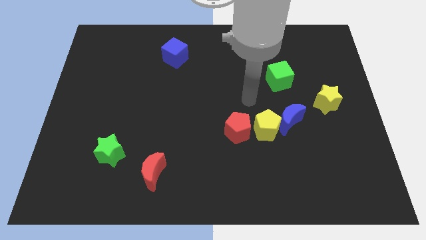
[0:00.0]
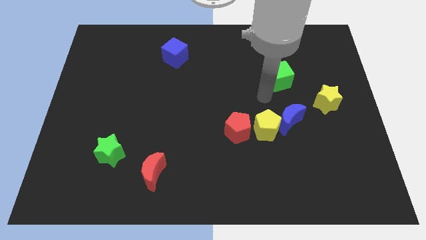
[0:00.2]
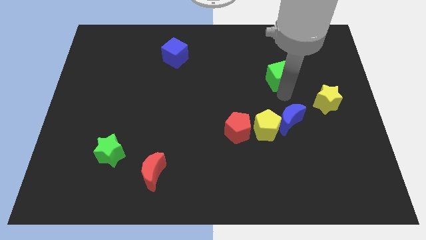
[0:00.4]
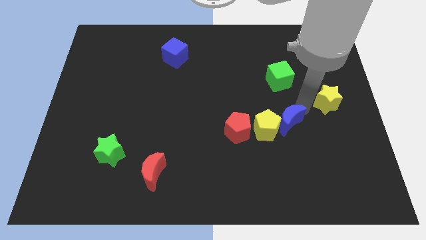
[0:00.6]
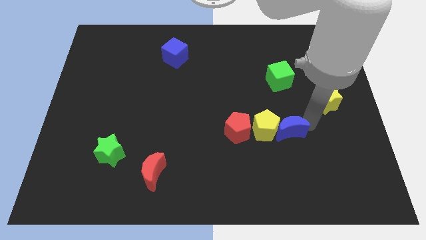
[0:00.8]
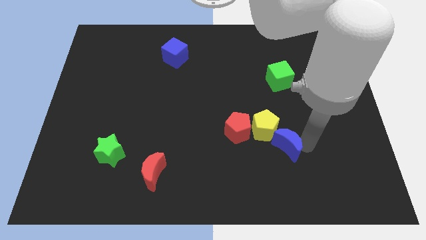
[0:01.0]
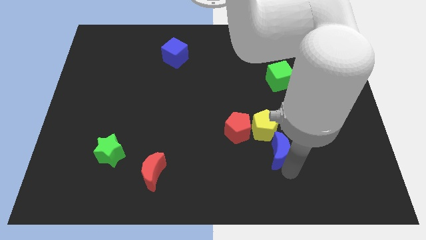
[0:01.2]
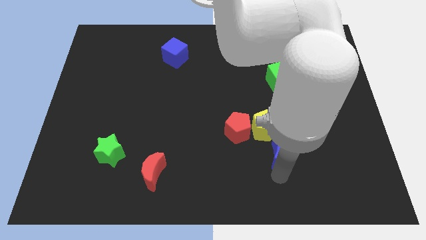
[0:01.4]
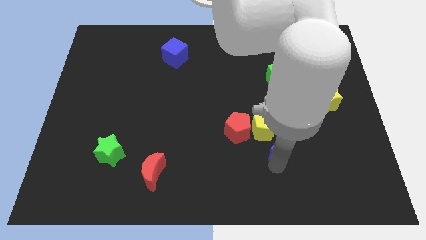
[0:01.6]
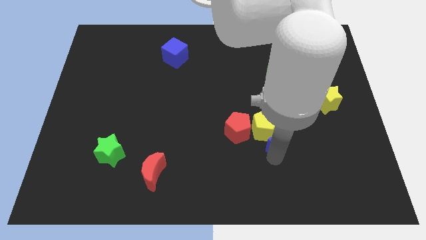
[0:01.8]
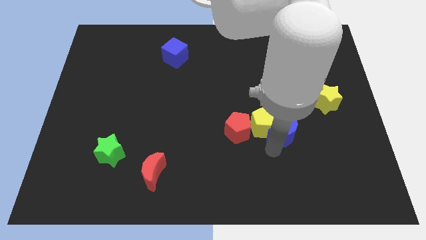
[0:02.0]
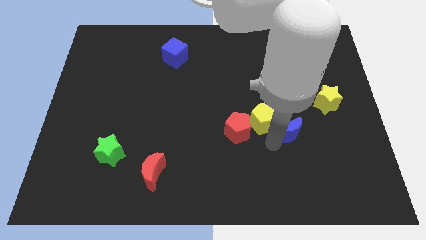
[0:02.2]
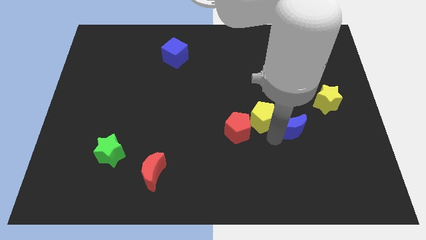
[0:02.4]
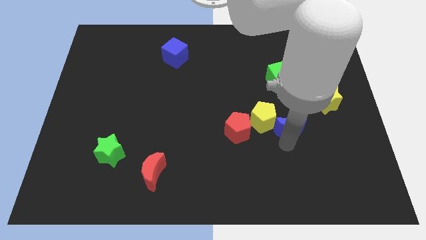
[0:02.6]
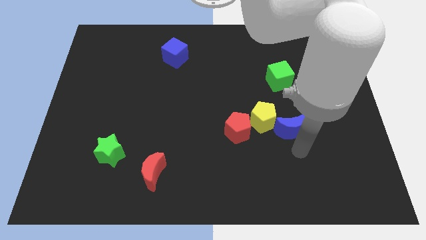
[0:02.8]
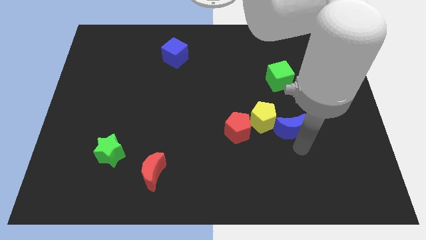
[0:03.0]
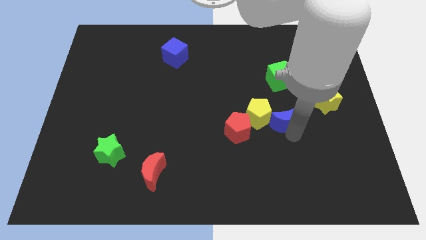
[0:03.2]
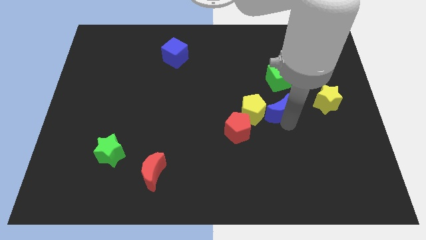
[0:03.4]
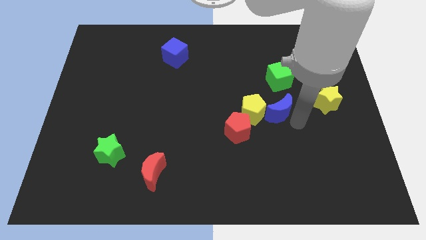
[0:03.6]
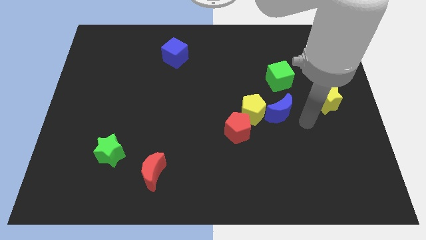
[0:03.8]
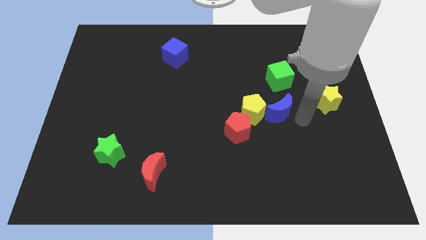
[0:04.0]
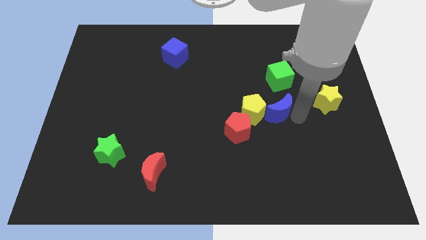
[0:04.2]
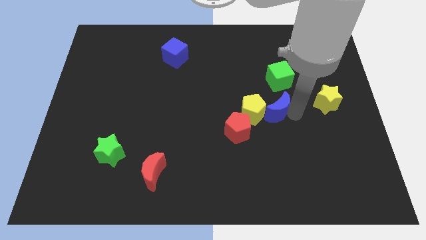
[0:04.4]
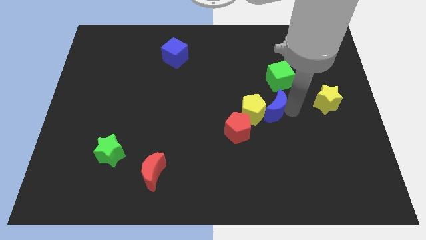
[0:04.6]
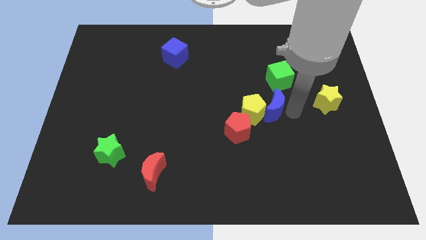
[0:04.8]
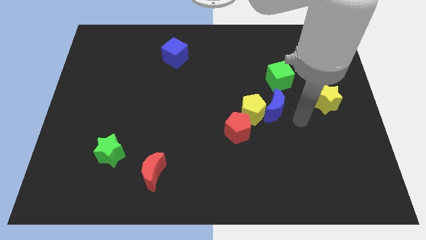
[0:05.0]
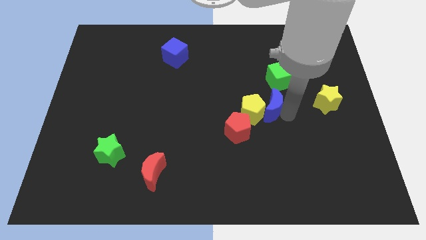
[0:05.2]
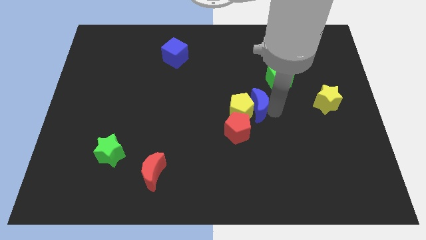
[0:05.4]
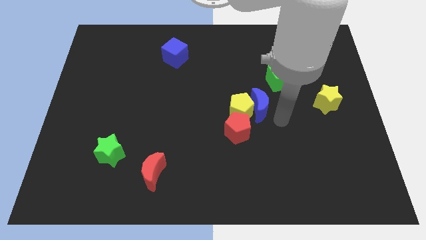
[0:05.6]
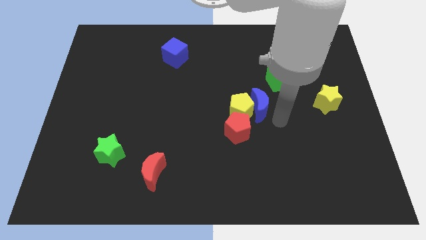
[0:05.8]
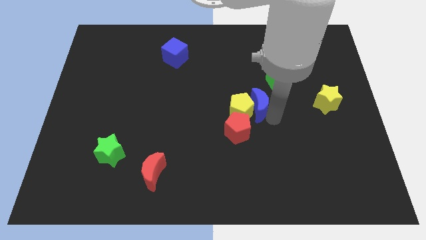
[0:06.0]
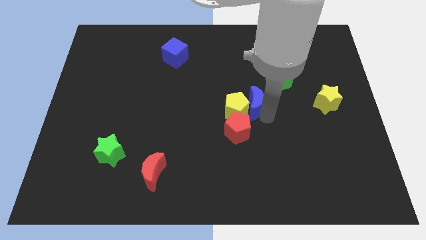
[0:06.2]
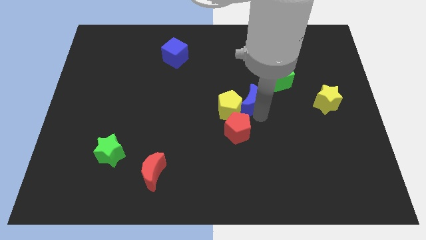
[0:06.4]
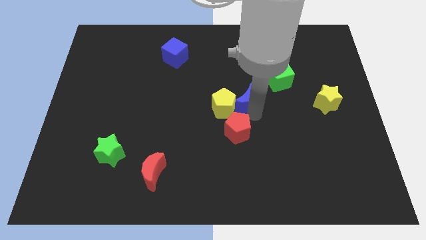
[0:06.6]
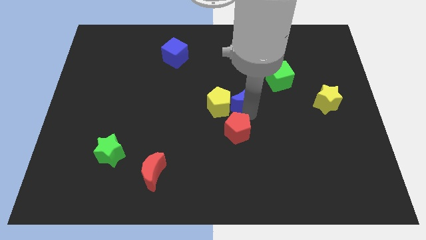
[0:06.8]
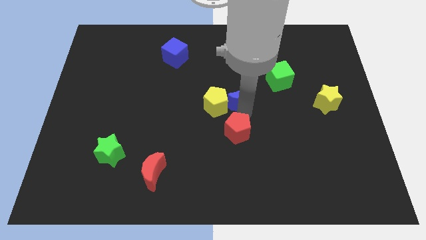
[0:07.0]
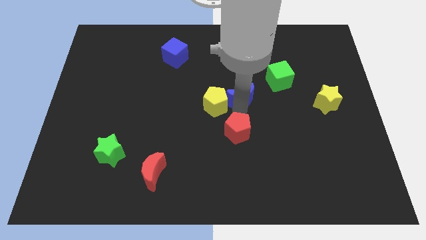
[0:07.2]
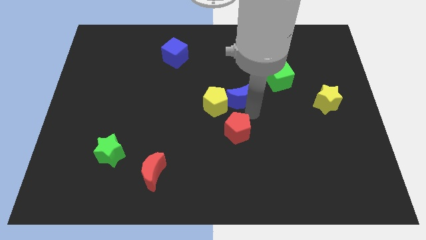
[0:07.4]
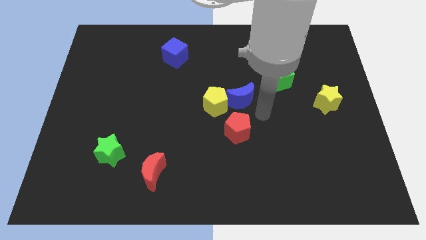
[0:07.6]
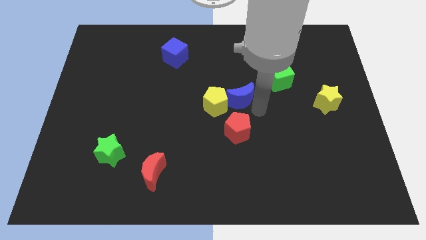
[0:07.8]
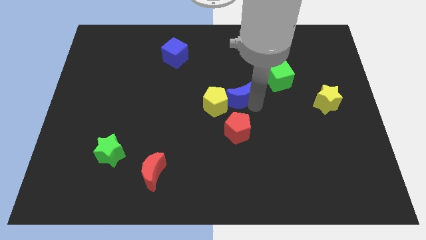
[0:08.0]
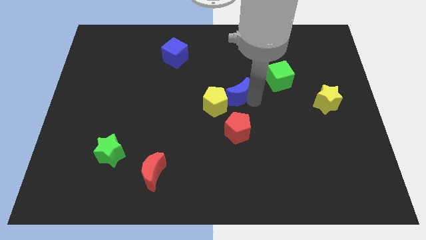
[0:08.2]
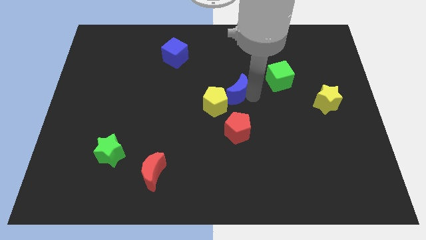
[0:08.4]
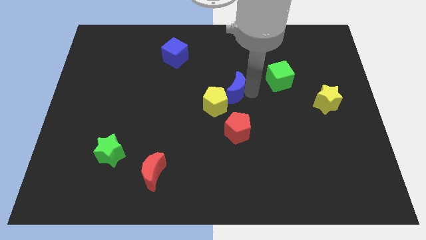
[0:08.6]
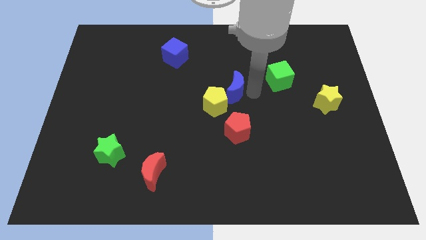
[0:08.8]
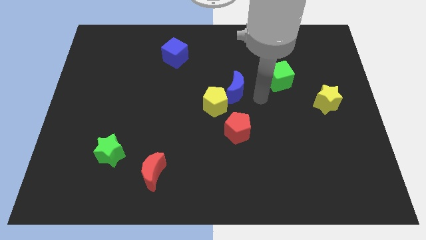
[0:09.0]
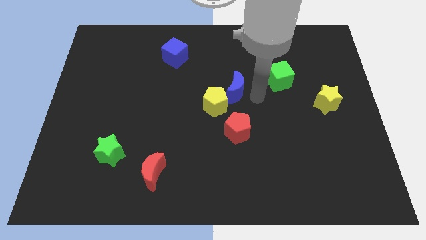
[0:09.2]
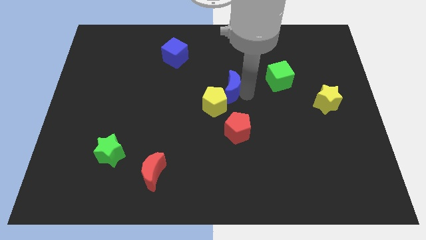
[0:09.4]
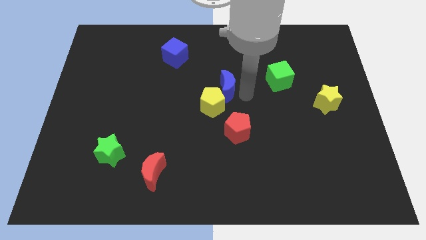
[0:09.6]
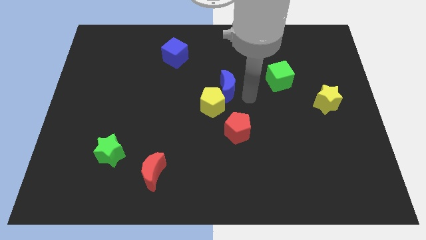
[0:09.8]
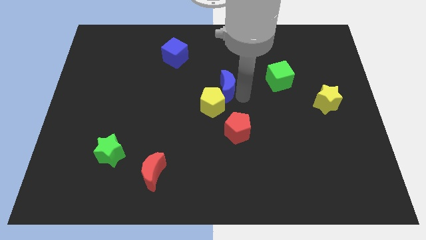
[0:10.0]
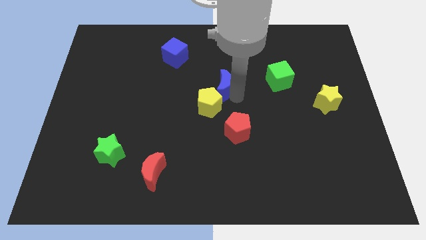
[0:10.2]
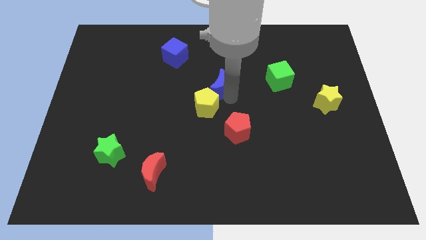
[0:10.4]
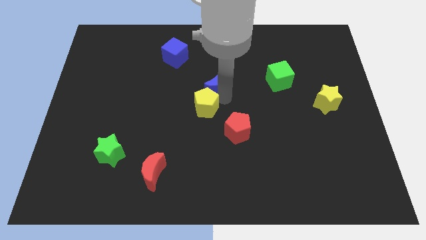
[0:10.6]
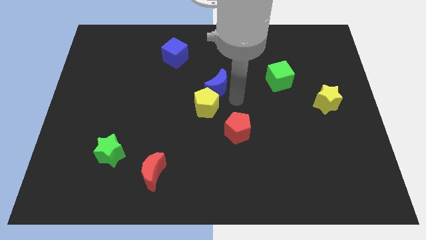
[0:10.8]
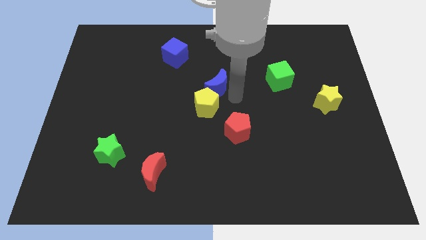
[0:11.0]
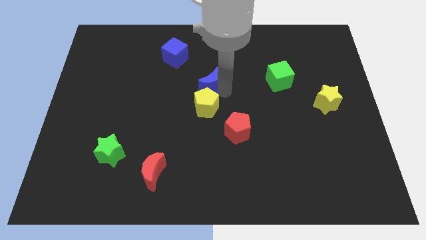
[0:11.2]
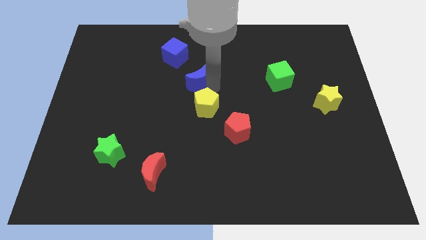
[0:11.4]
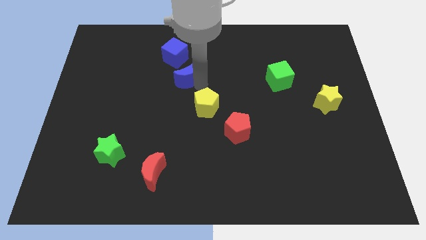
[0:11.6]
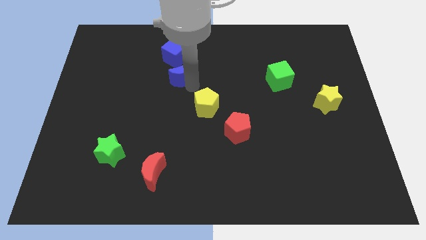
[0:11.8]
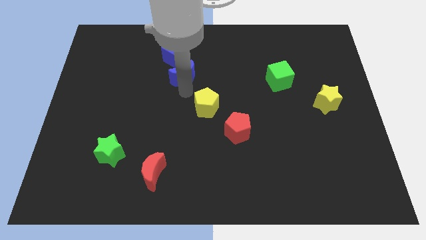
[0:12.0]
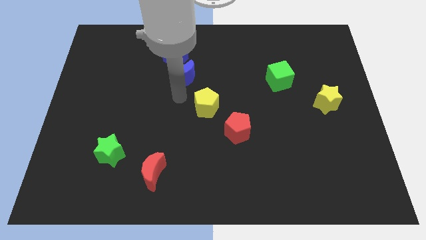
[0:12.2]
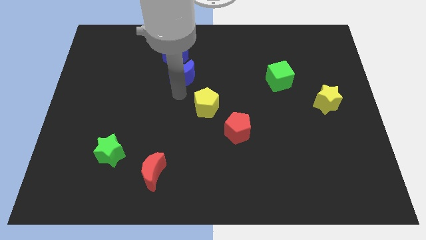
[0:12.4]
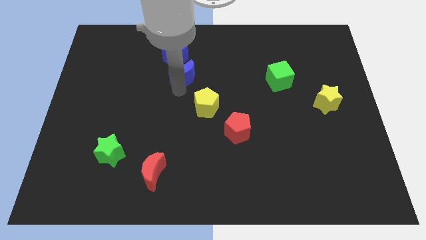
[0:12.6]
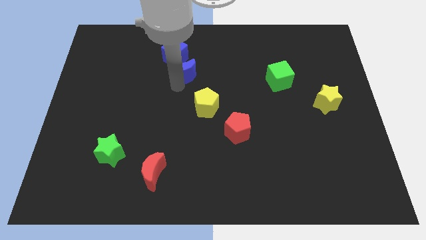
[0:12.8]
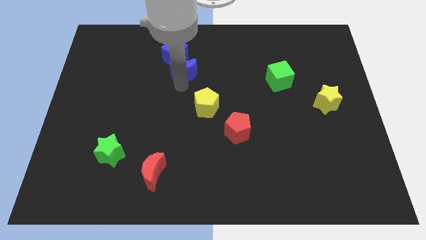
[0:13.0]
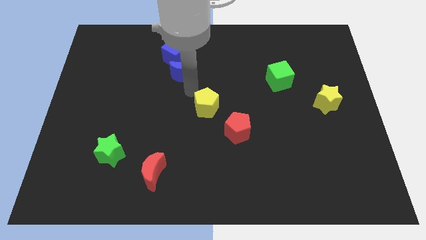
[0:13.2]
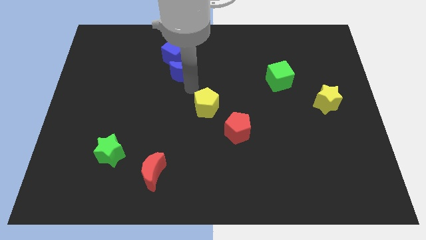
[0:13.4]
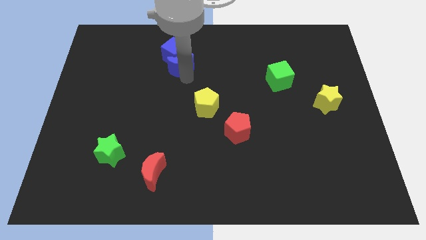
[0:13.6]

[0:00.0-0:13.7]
slide the blue moon close to the blue cube

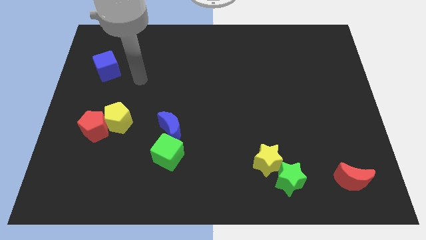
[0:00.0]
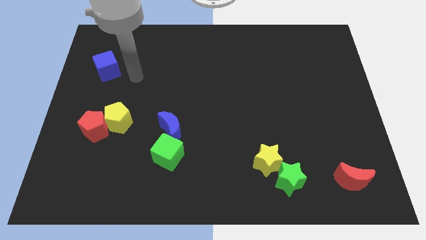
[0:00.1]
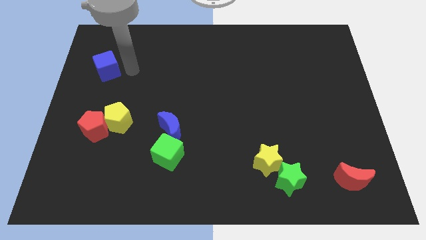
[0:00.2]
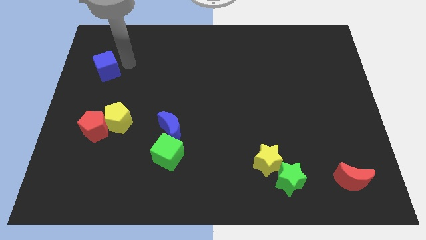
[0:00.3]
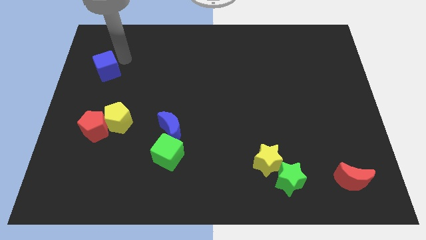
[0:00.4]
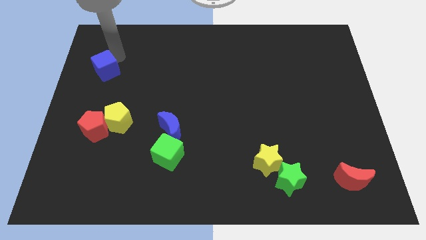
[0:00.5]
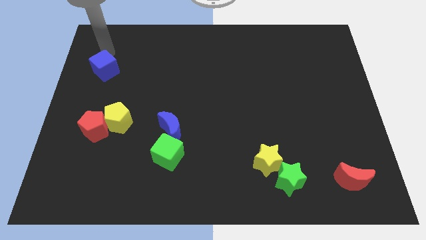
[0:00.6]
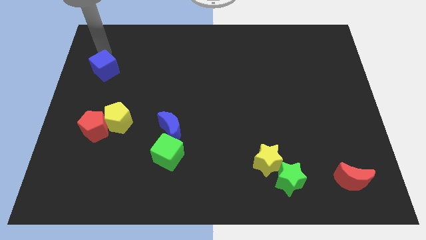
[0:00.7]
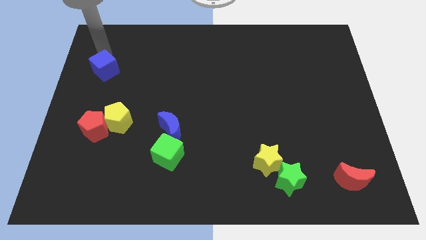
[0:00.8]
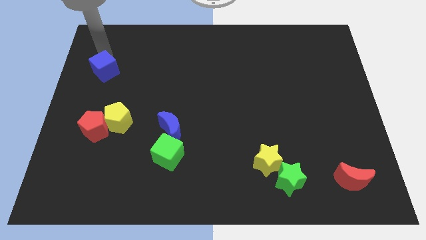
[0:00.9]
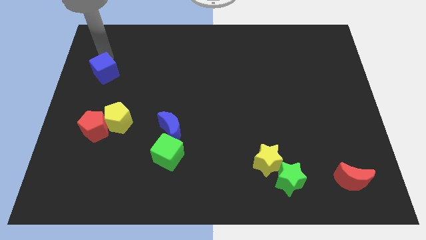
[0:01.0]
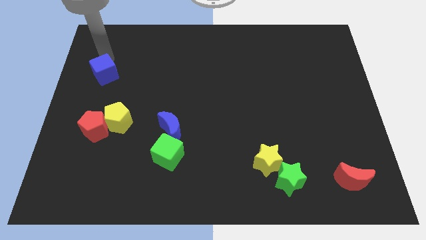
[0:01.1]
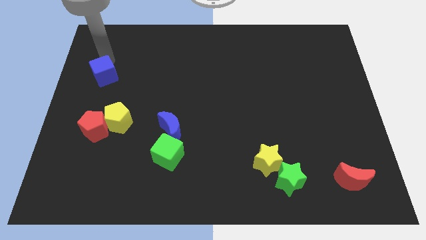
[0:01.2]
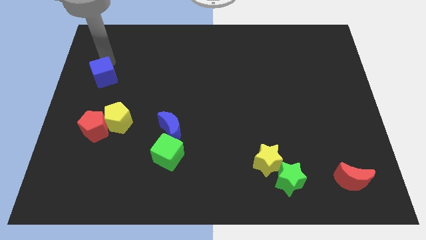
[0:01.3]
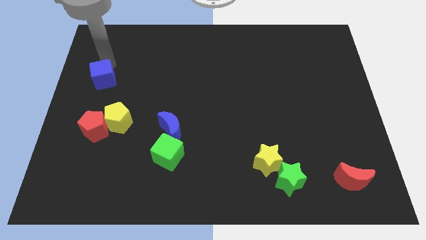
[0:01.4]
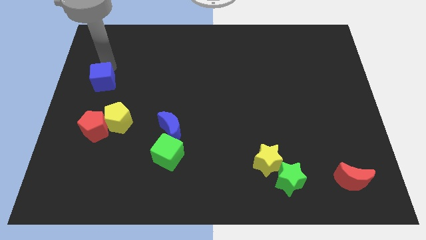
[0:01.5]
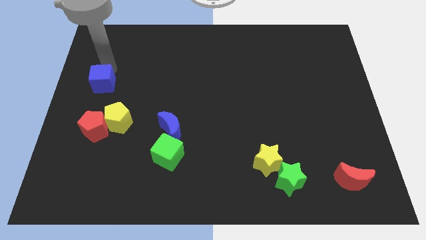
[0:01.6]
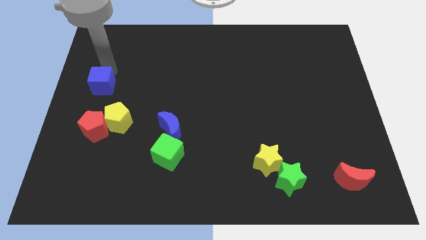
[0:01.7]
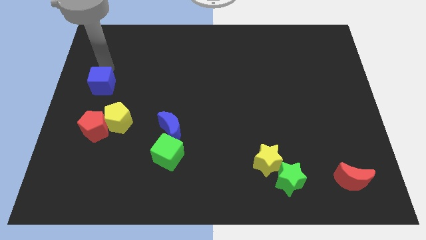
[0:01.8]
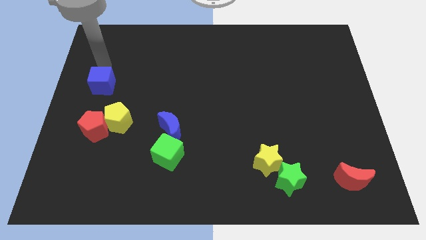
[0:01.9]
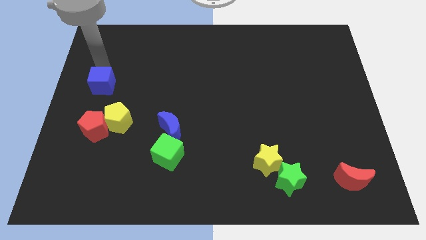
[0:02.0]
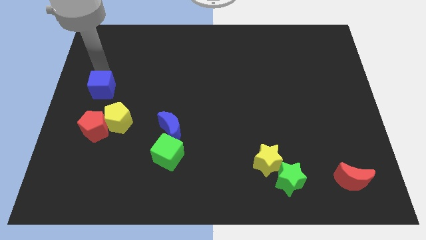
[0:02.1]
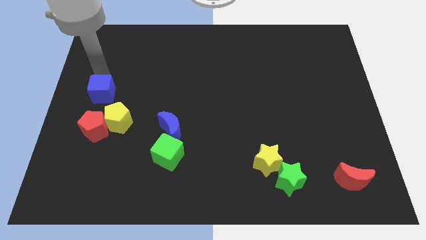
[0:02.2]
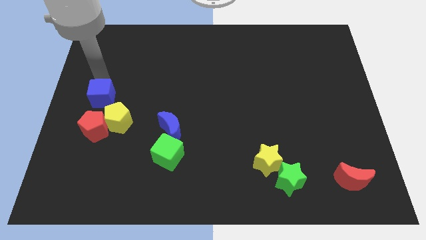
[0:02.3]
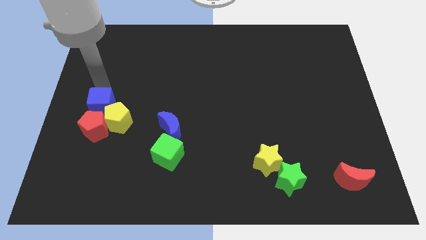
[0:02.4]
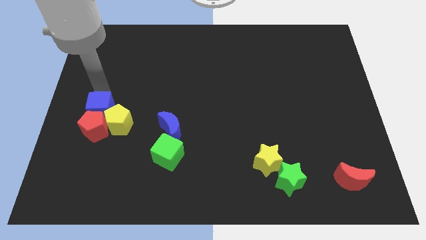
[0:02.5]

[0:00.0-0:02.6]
move the blue cube close to the red pentagon
